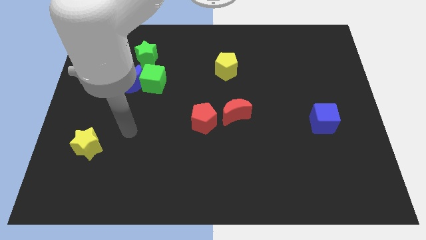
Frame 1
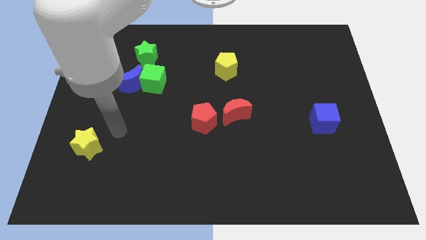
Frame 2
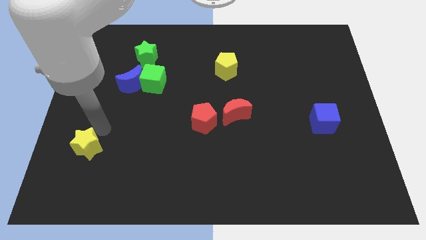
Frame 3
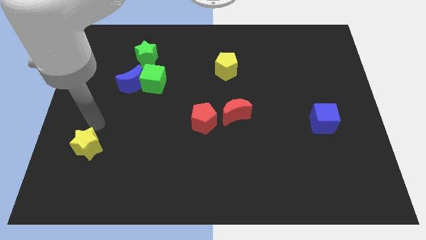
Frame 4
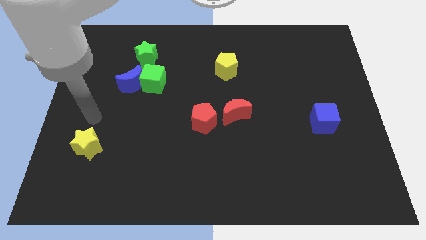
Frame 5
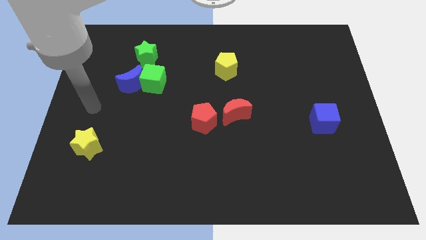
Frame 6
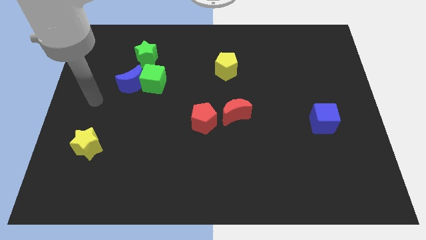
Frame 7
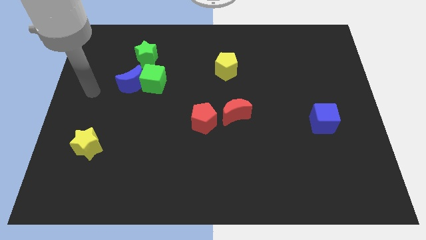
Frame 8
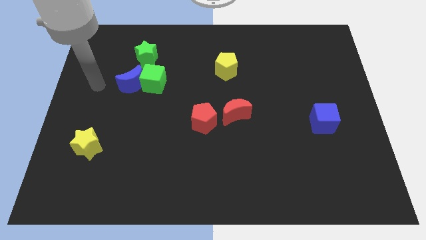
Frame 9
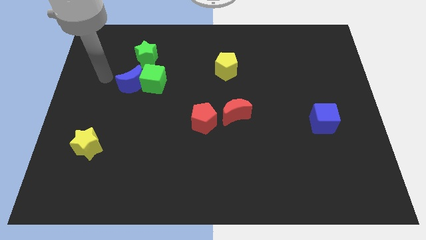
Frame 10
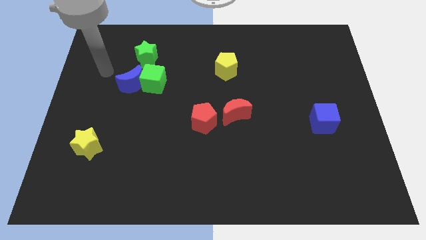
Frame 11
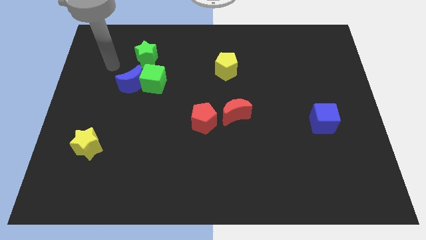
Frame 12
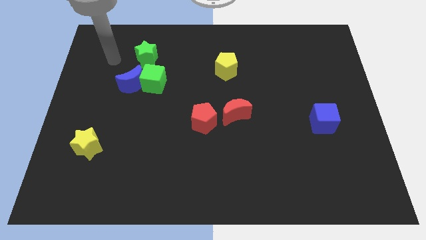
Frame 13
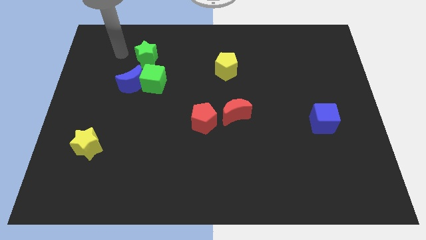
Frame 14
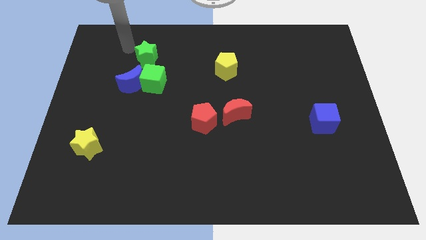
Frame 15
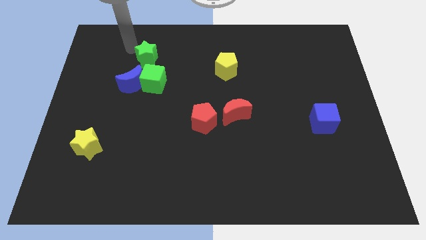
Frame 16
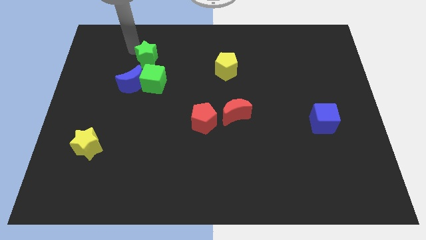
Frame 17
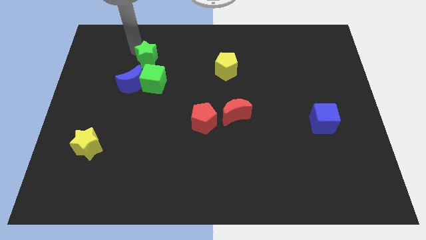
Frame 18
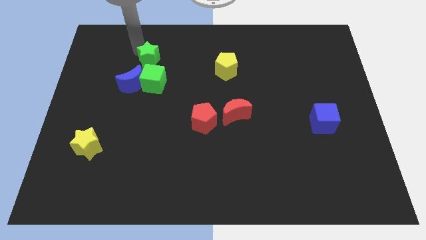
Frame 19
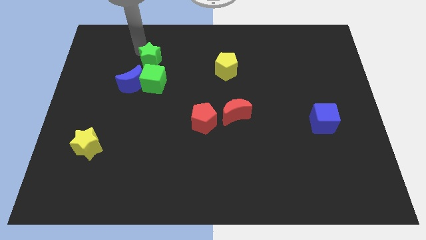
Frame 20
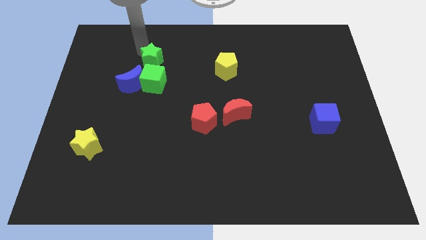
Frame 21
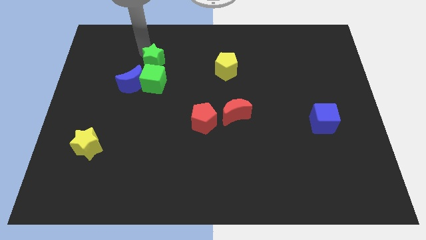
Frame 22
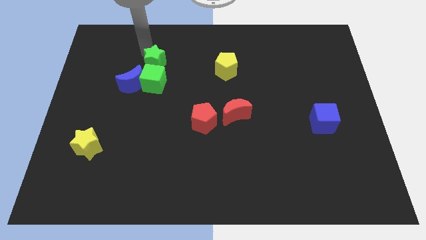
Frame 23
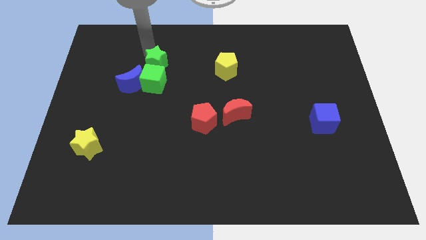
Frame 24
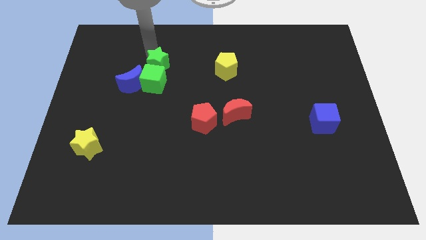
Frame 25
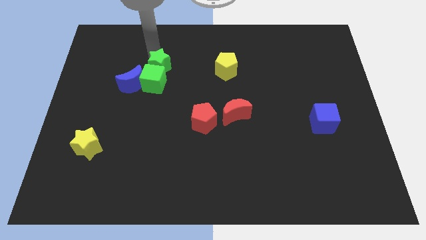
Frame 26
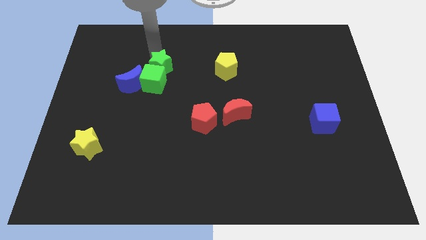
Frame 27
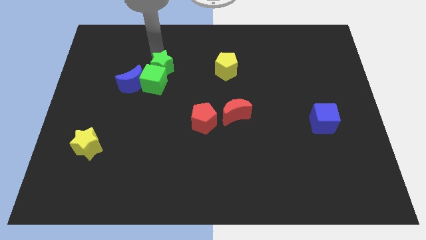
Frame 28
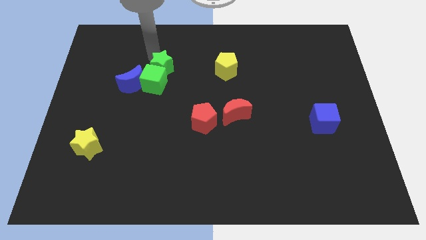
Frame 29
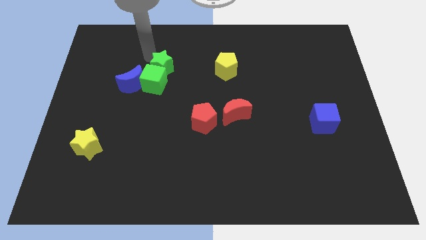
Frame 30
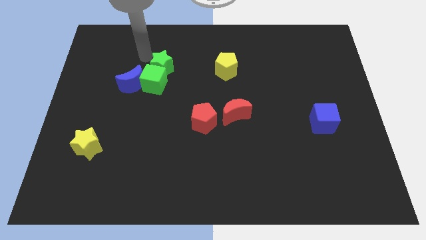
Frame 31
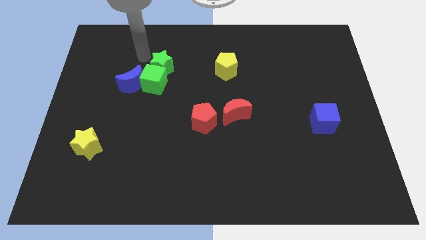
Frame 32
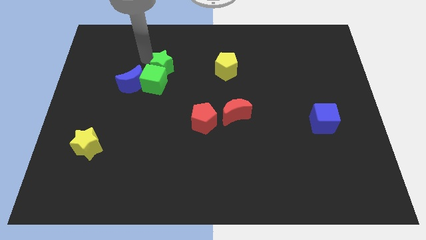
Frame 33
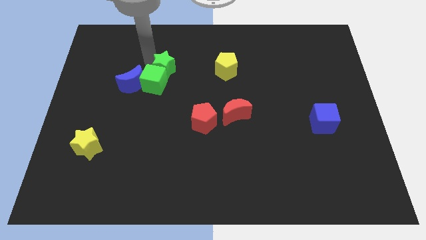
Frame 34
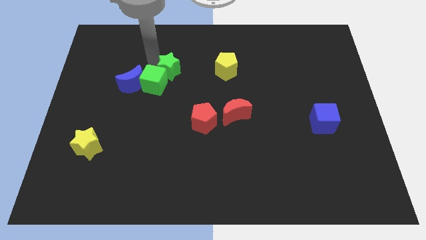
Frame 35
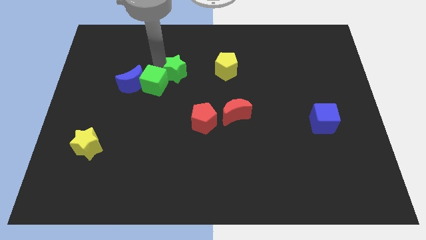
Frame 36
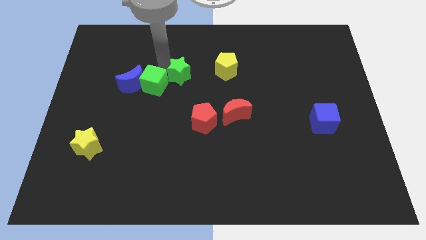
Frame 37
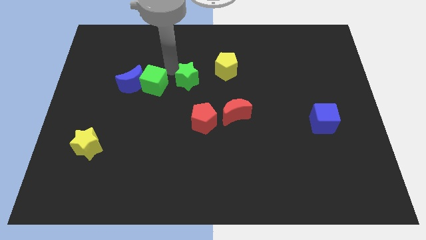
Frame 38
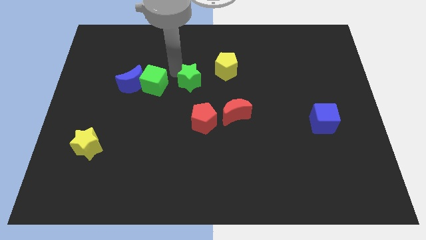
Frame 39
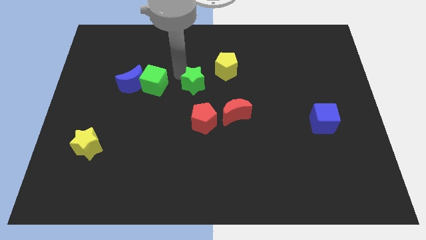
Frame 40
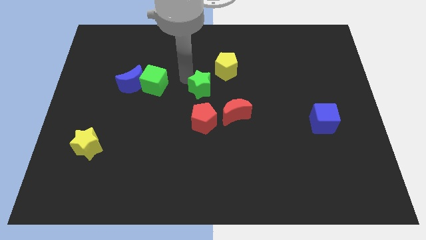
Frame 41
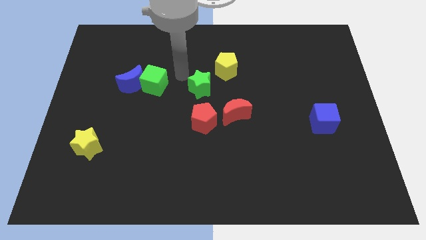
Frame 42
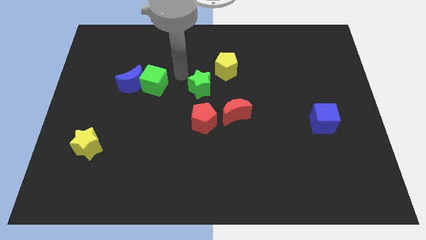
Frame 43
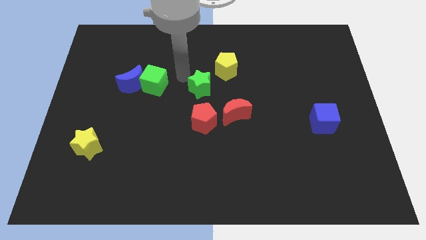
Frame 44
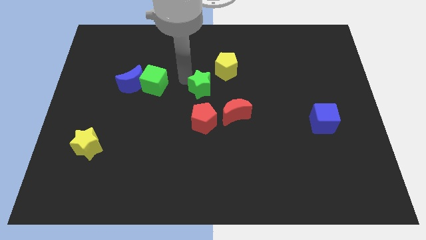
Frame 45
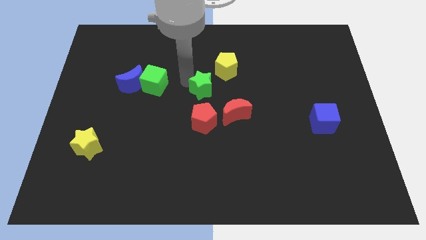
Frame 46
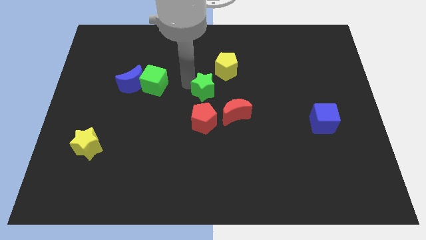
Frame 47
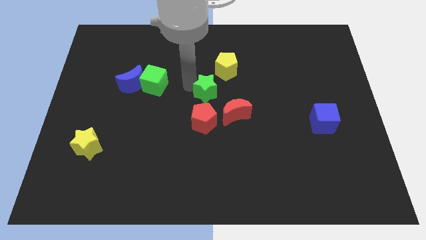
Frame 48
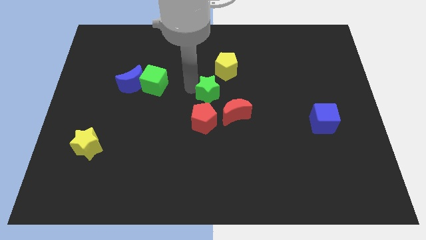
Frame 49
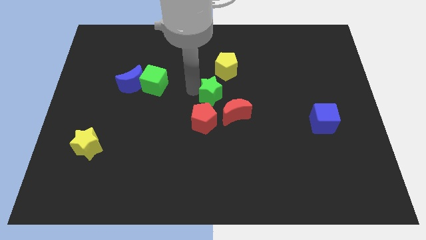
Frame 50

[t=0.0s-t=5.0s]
move the green star to the top right of the red pentagon

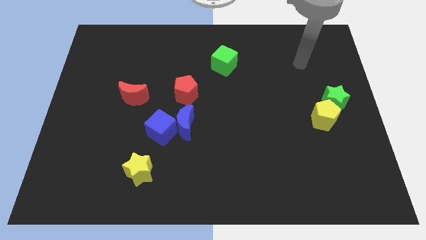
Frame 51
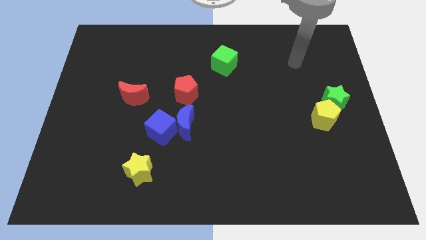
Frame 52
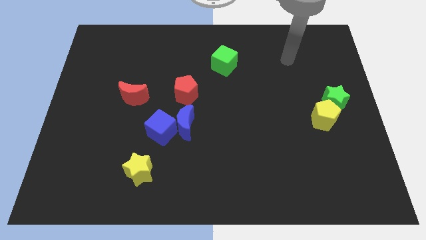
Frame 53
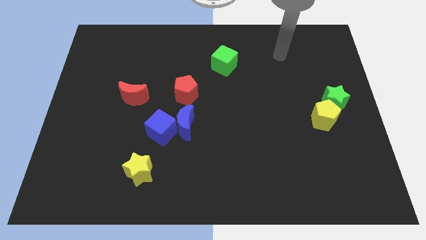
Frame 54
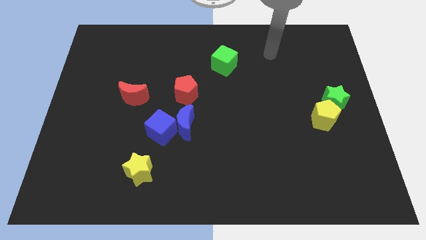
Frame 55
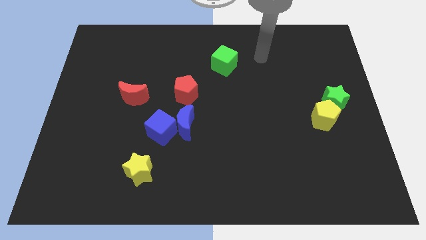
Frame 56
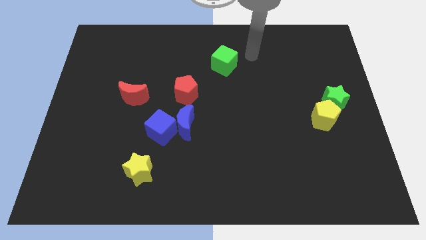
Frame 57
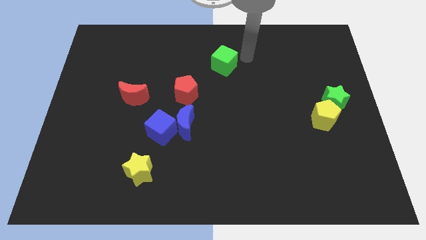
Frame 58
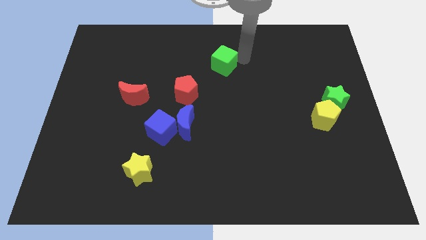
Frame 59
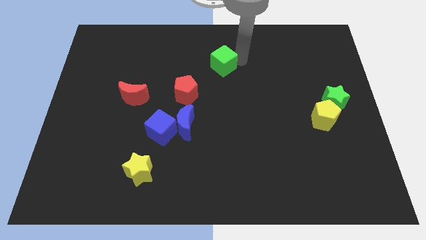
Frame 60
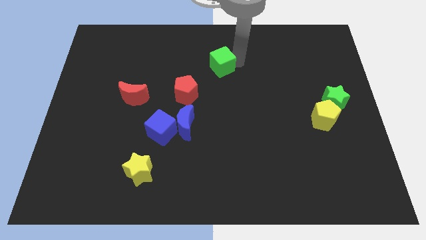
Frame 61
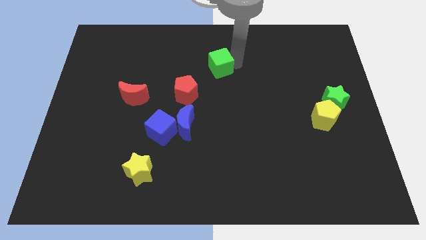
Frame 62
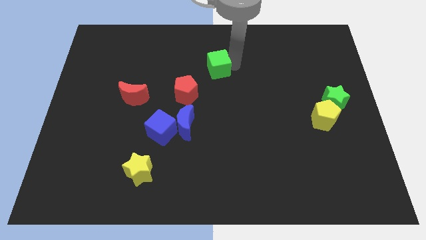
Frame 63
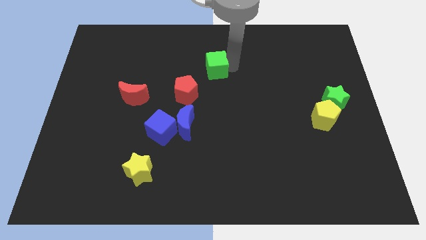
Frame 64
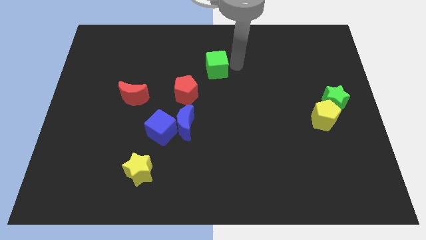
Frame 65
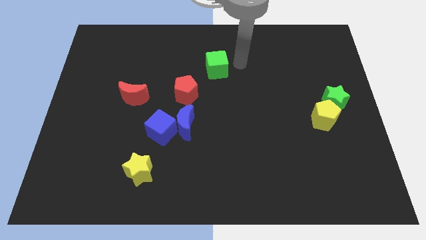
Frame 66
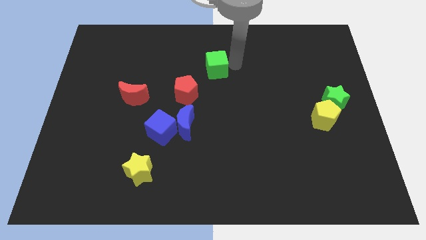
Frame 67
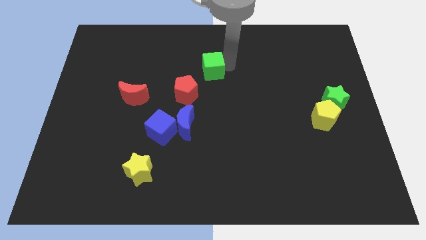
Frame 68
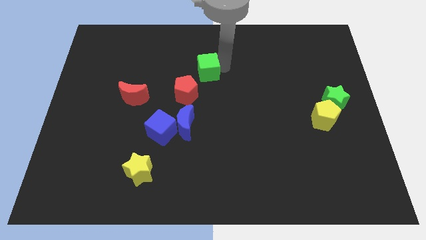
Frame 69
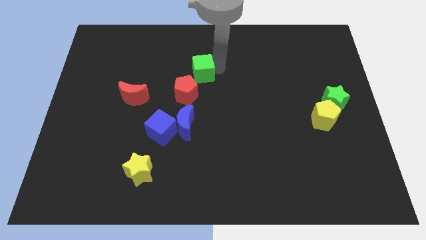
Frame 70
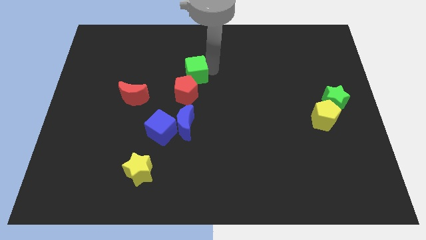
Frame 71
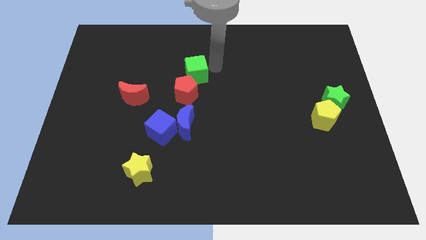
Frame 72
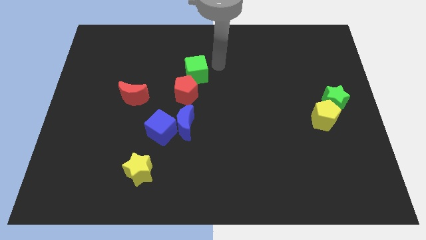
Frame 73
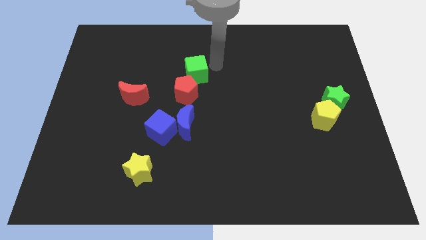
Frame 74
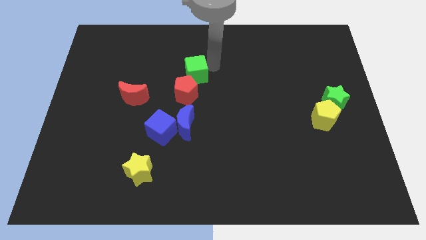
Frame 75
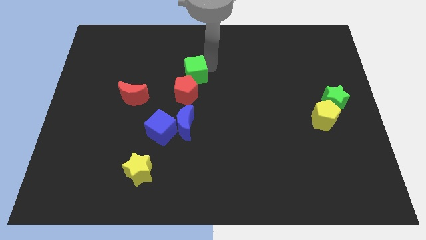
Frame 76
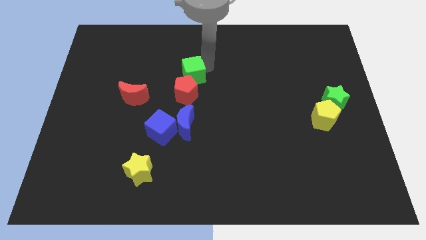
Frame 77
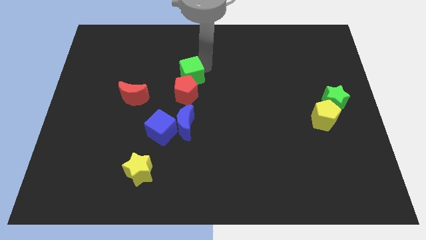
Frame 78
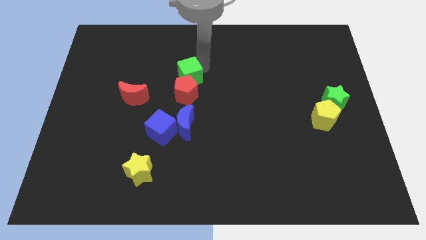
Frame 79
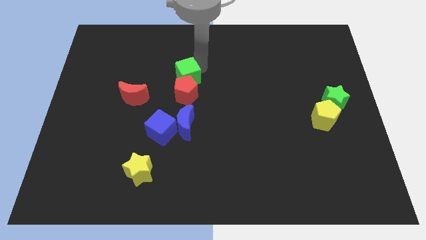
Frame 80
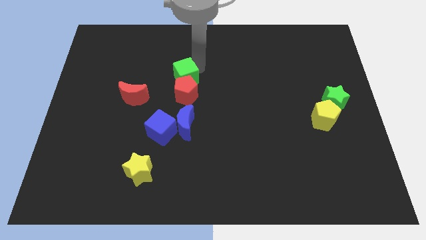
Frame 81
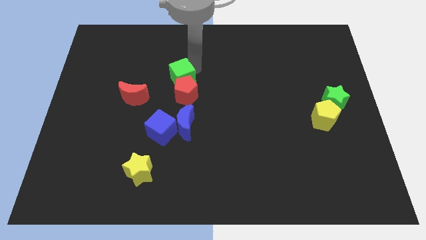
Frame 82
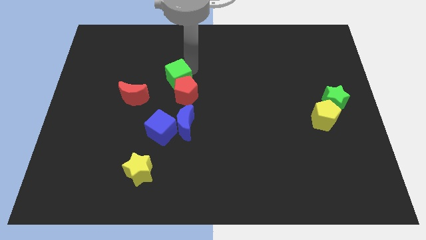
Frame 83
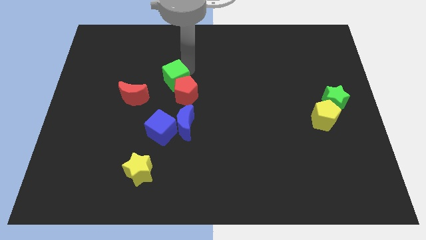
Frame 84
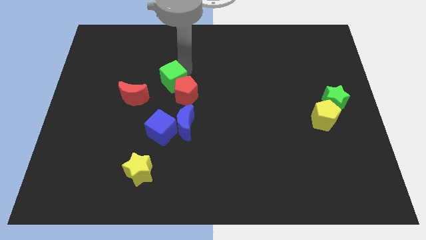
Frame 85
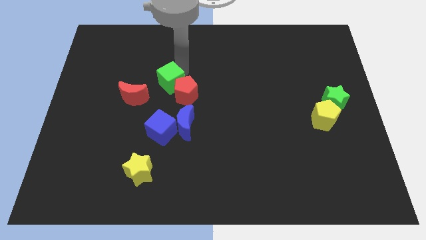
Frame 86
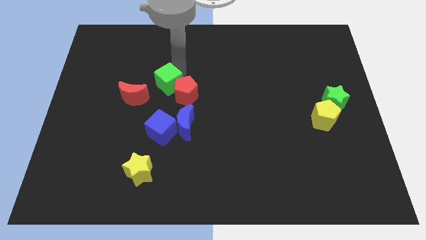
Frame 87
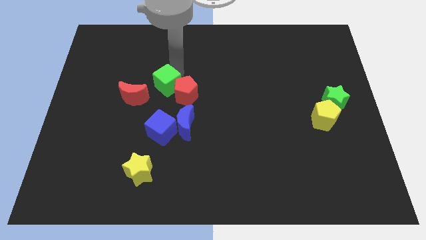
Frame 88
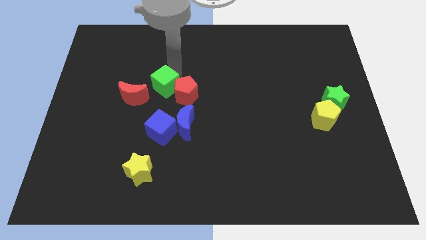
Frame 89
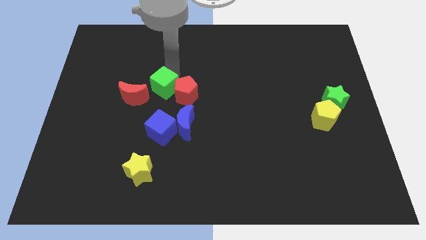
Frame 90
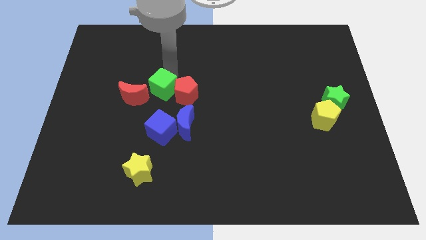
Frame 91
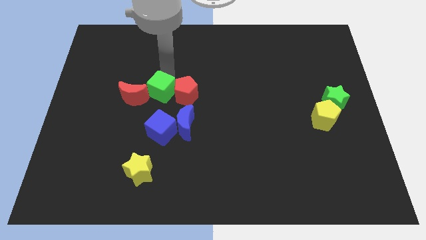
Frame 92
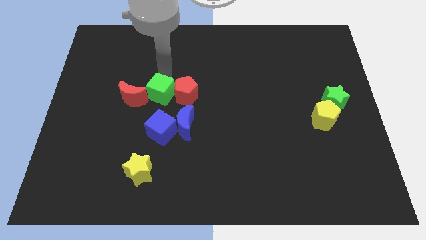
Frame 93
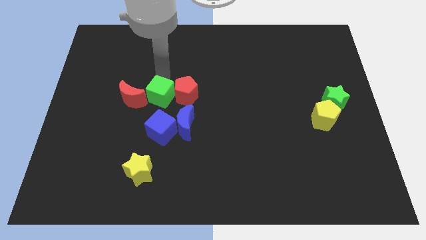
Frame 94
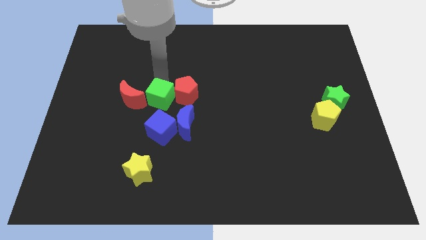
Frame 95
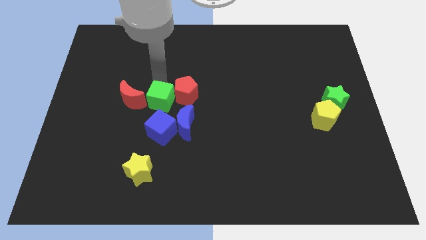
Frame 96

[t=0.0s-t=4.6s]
slide the green cube diagonally down and to the right of the red moon
